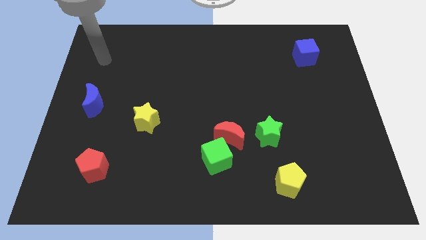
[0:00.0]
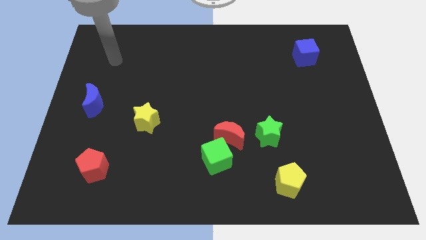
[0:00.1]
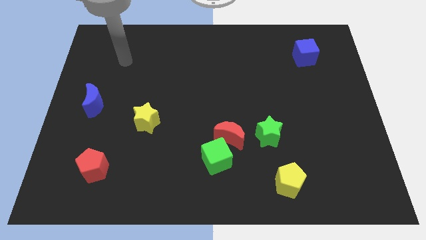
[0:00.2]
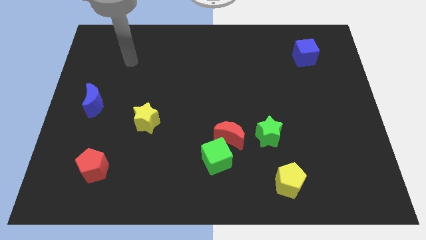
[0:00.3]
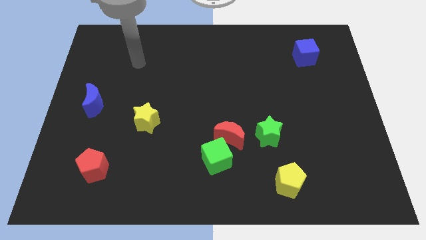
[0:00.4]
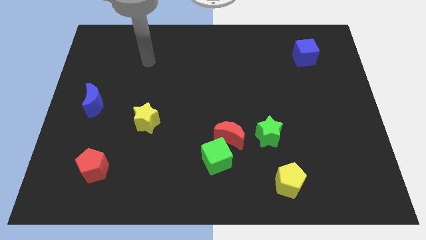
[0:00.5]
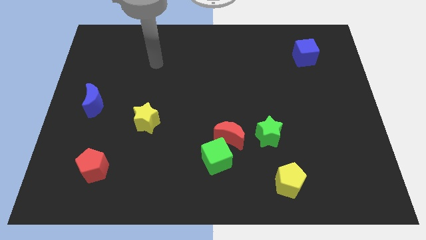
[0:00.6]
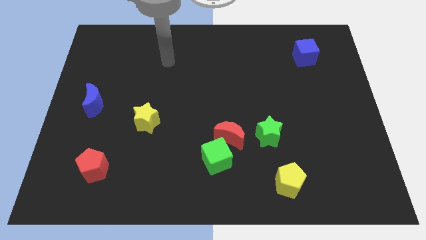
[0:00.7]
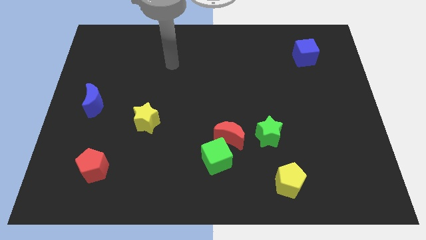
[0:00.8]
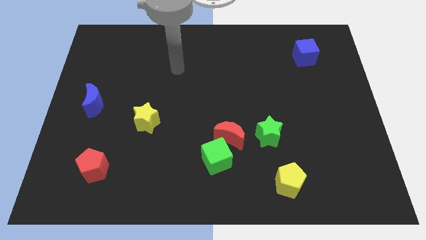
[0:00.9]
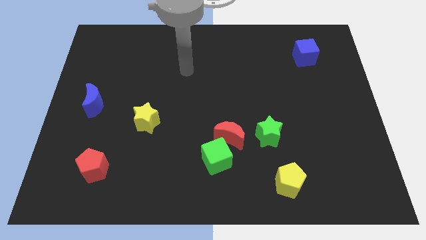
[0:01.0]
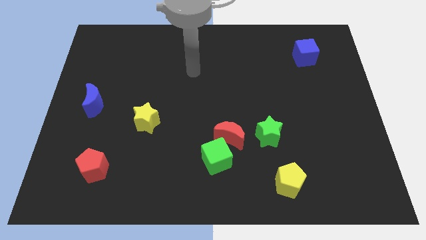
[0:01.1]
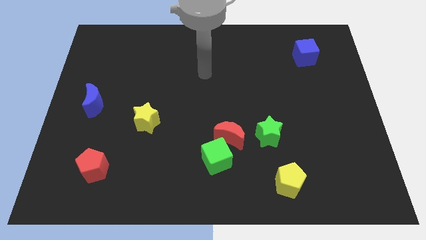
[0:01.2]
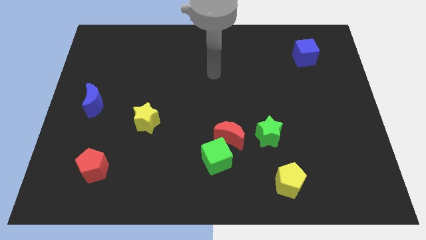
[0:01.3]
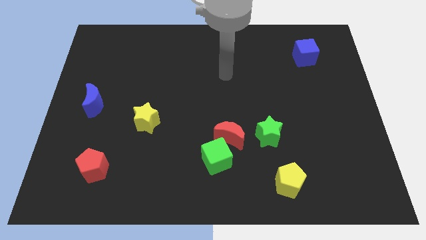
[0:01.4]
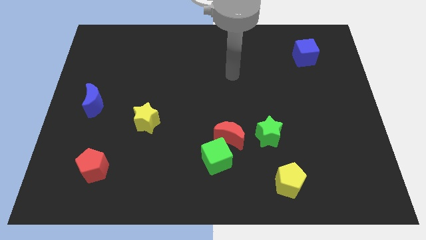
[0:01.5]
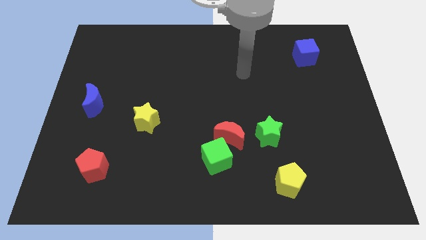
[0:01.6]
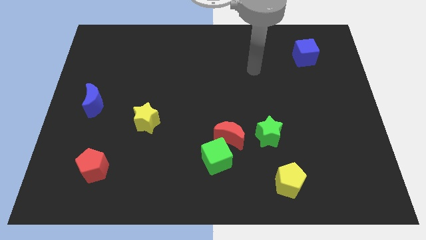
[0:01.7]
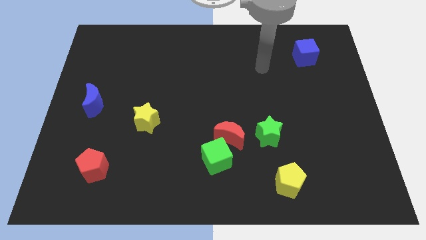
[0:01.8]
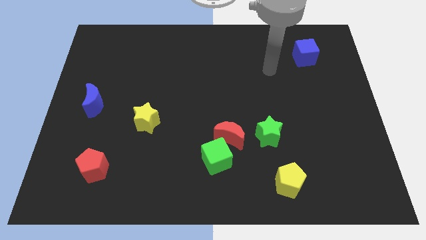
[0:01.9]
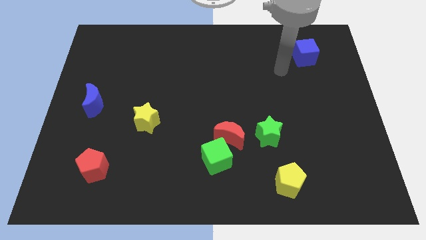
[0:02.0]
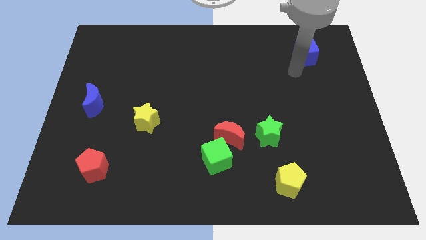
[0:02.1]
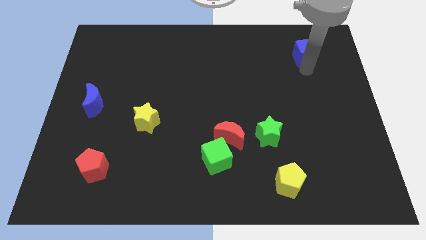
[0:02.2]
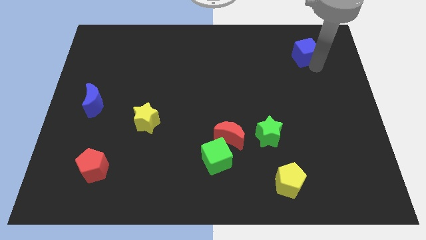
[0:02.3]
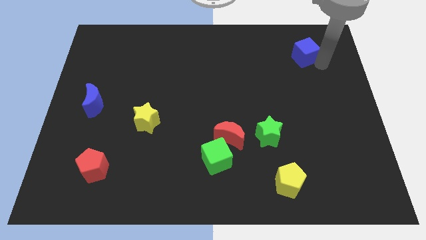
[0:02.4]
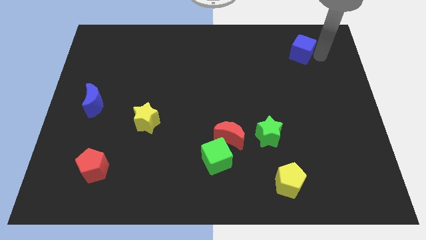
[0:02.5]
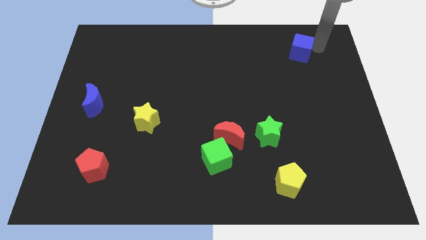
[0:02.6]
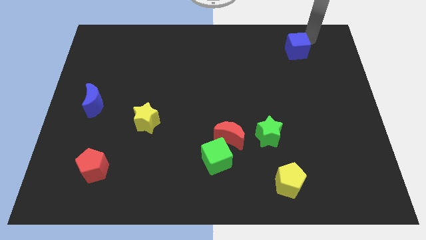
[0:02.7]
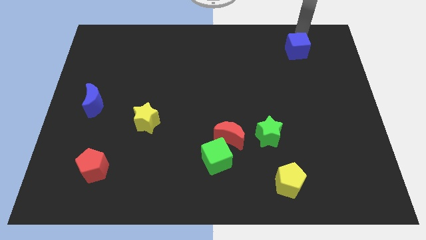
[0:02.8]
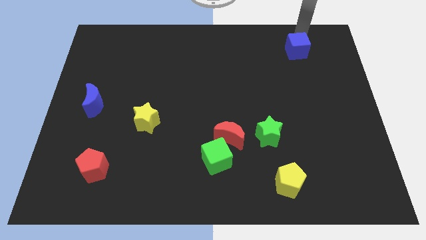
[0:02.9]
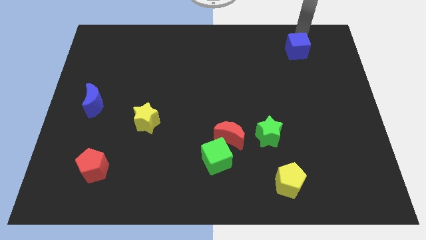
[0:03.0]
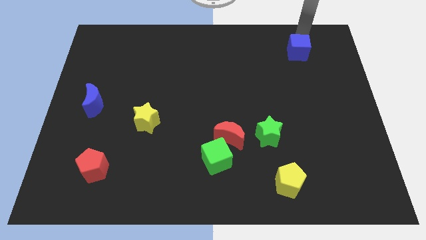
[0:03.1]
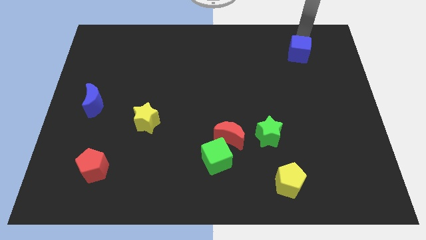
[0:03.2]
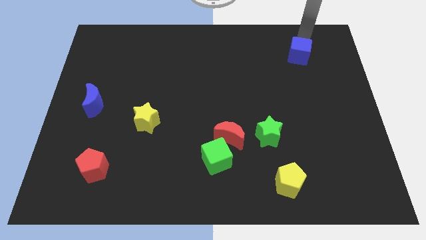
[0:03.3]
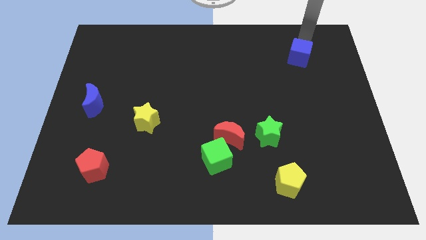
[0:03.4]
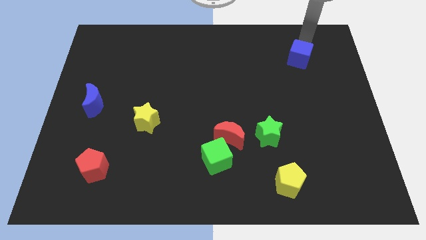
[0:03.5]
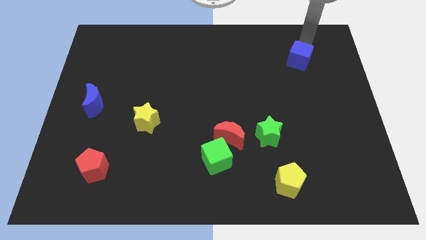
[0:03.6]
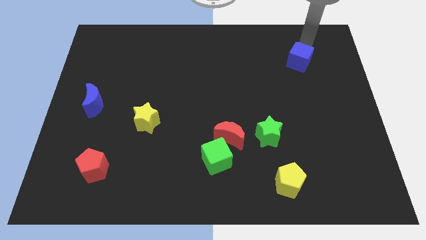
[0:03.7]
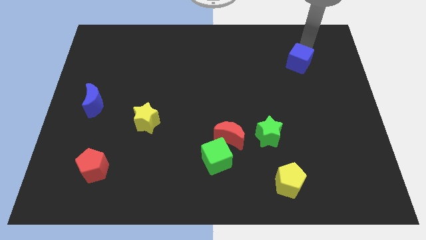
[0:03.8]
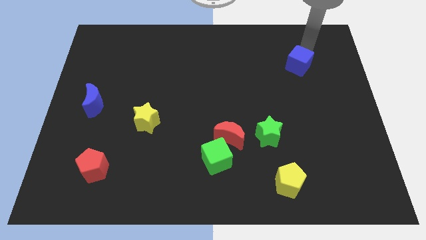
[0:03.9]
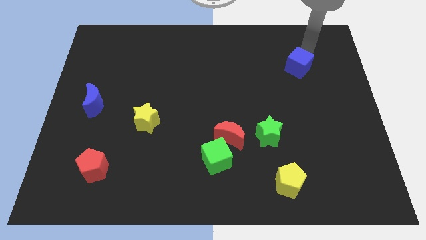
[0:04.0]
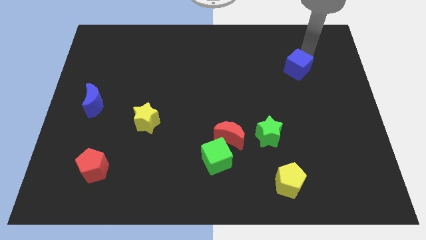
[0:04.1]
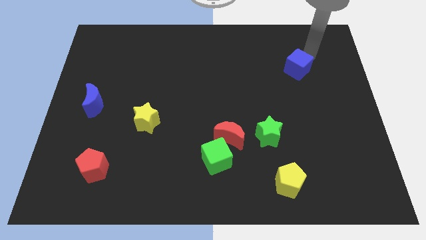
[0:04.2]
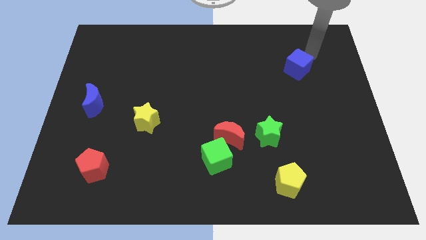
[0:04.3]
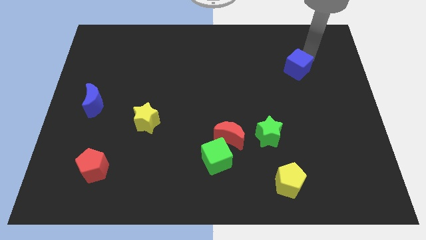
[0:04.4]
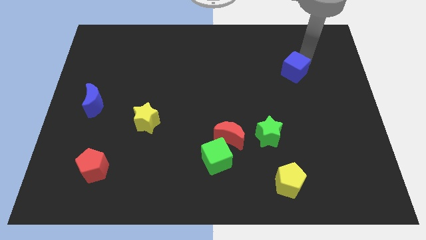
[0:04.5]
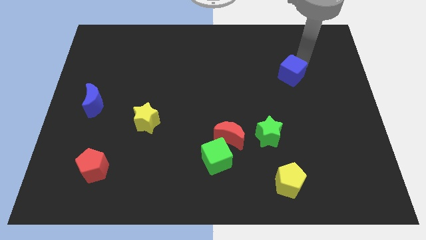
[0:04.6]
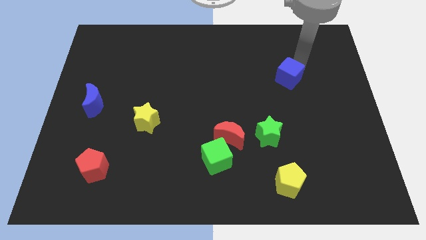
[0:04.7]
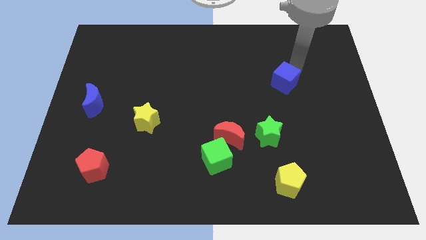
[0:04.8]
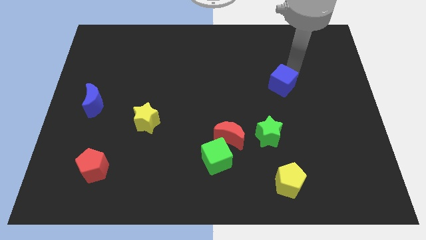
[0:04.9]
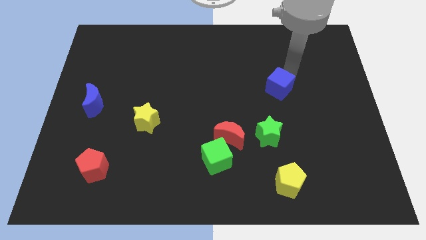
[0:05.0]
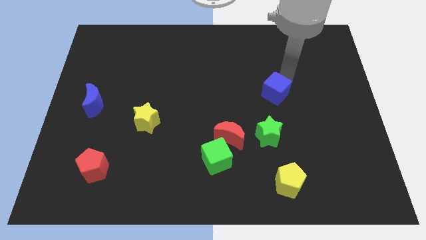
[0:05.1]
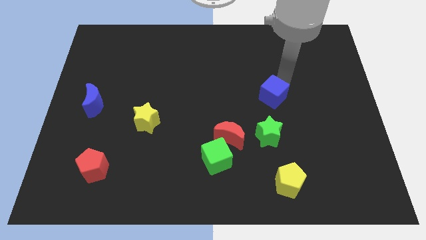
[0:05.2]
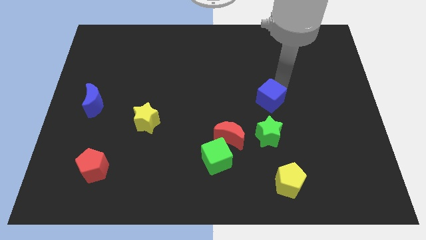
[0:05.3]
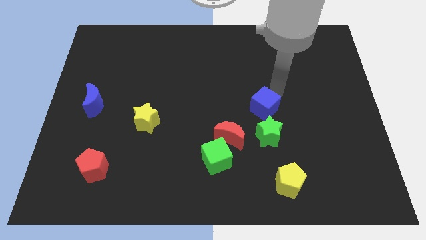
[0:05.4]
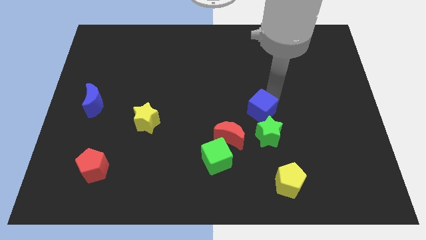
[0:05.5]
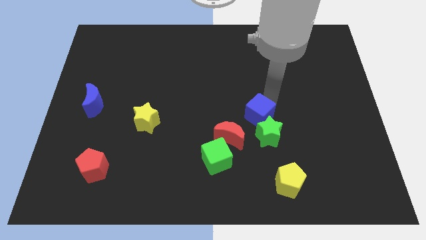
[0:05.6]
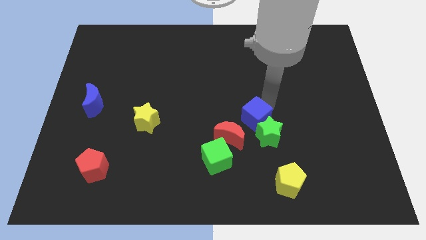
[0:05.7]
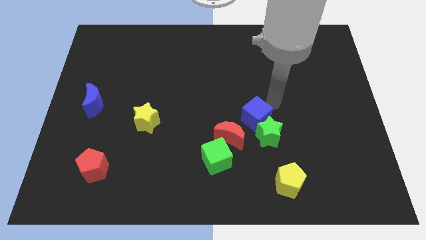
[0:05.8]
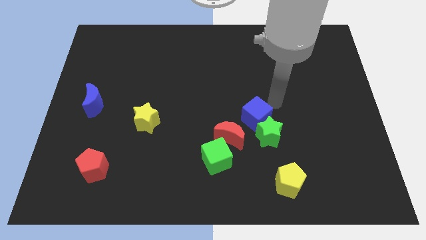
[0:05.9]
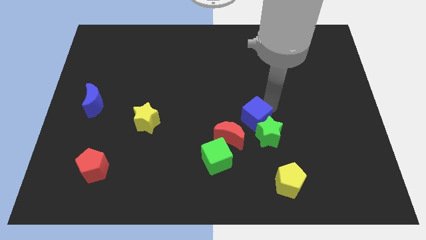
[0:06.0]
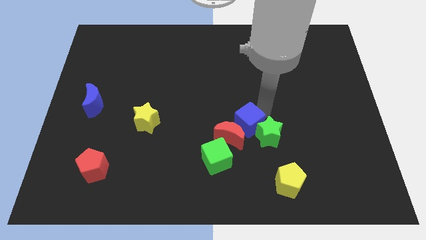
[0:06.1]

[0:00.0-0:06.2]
slide the blue cube next to the red moon

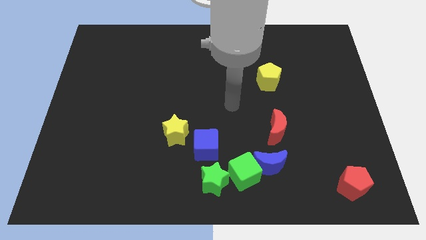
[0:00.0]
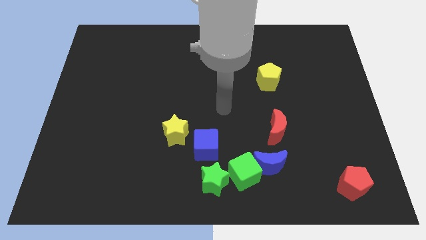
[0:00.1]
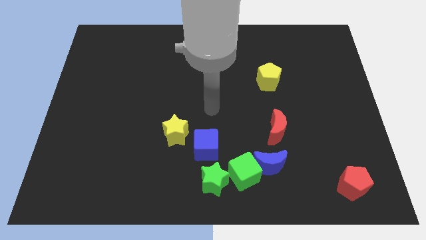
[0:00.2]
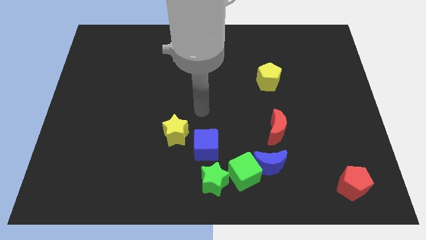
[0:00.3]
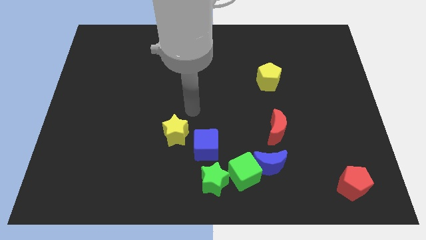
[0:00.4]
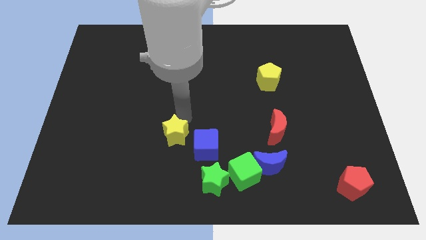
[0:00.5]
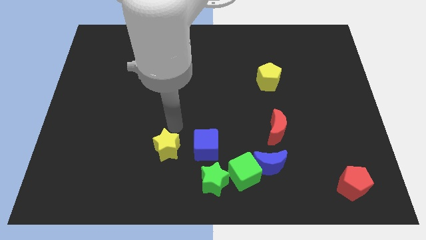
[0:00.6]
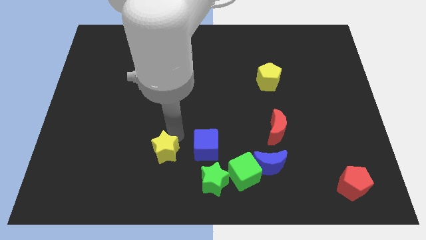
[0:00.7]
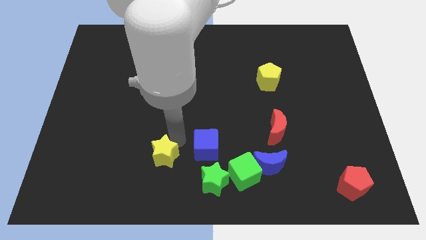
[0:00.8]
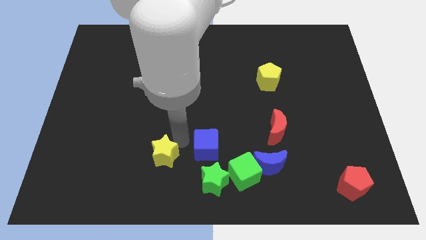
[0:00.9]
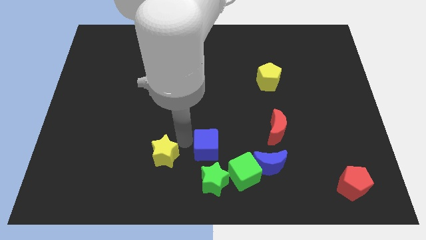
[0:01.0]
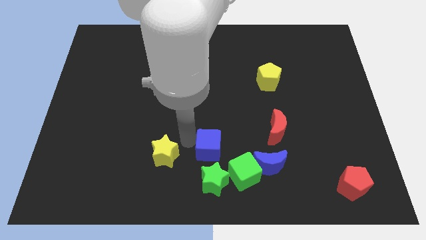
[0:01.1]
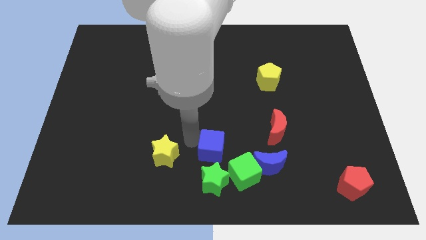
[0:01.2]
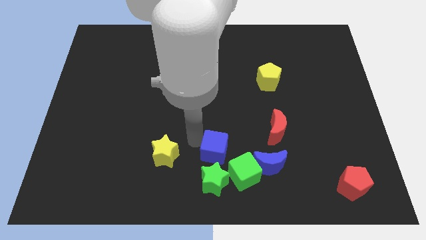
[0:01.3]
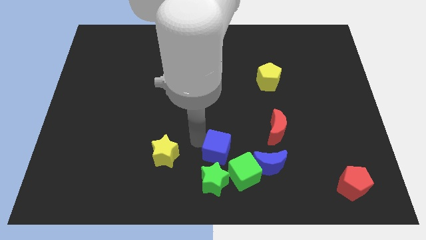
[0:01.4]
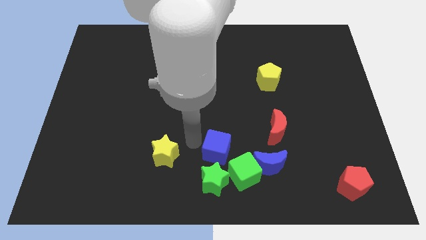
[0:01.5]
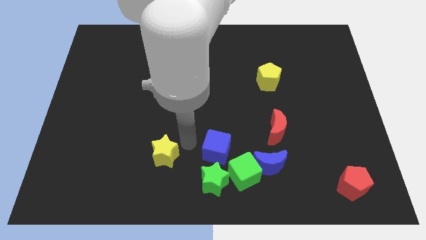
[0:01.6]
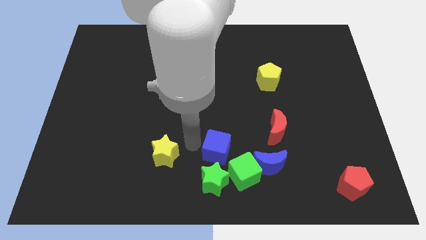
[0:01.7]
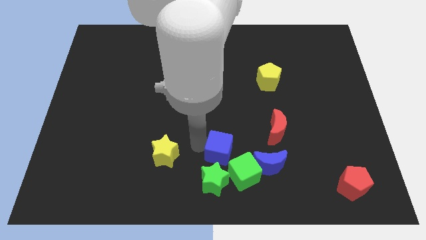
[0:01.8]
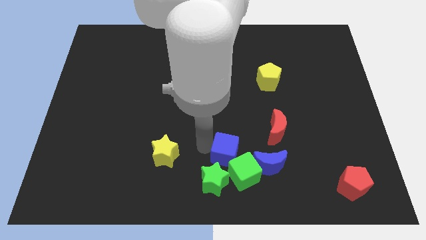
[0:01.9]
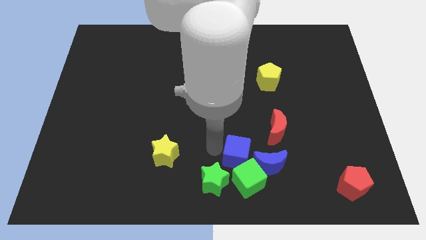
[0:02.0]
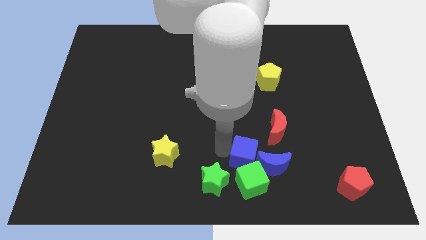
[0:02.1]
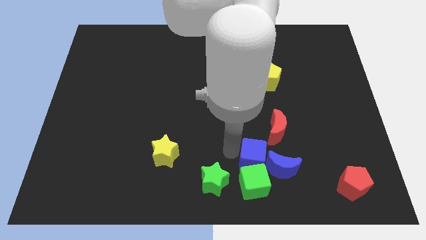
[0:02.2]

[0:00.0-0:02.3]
put the blue cube to the blue moon
